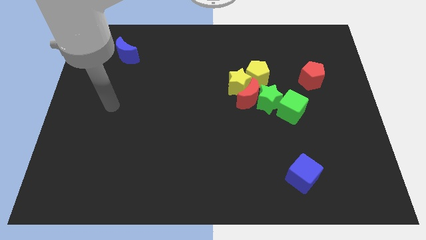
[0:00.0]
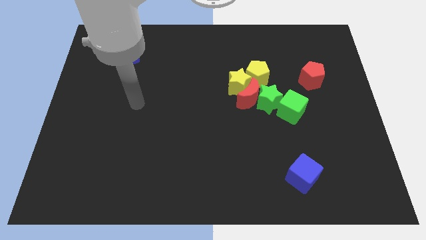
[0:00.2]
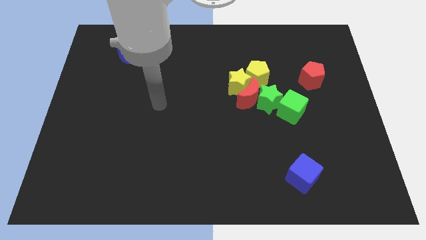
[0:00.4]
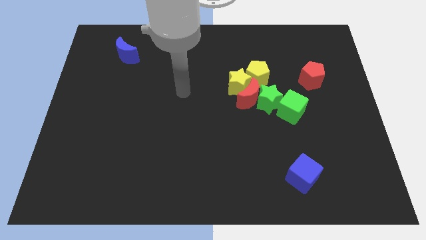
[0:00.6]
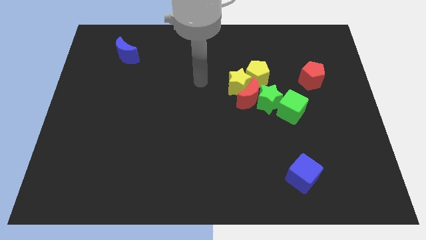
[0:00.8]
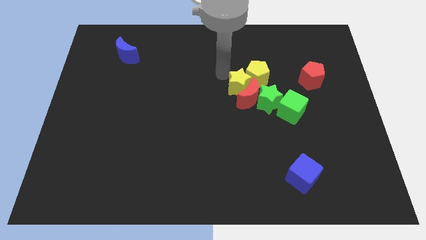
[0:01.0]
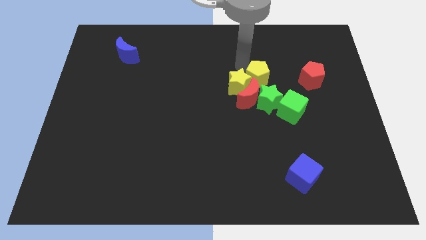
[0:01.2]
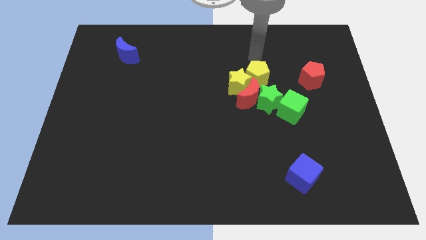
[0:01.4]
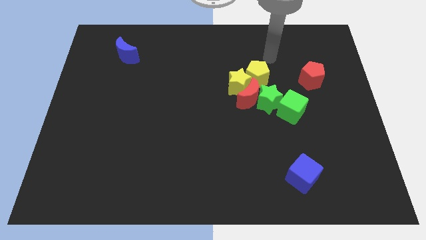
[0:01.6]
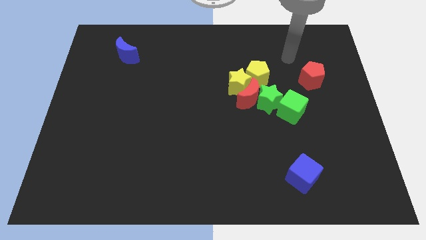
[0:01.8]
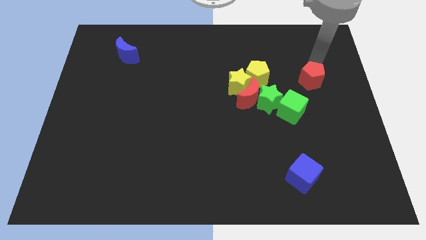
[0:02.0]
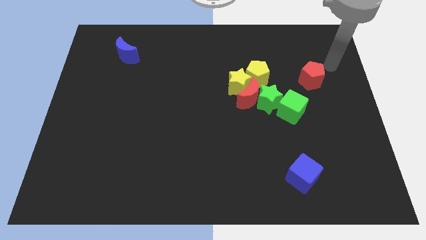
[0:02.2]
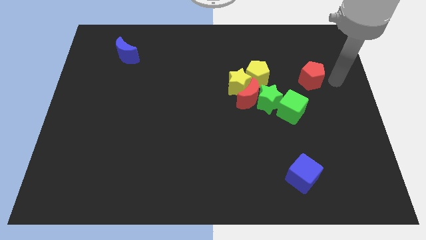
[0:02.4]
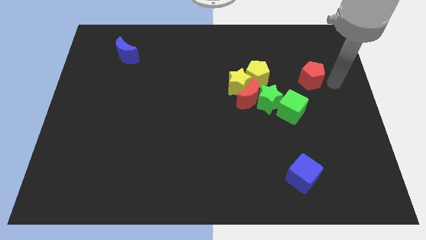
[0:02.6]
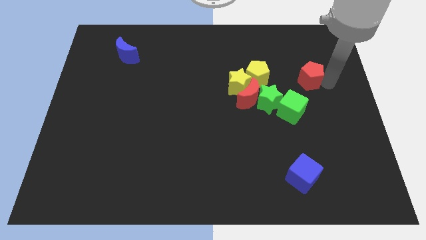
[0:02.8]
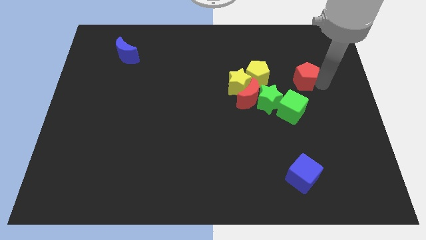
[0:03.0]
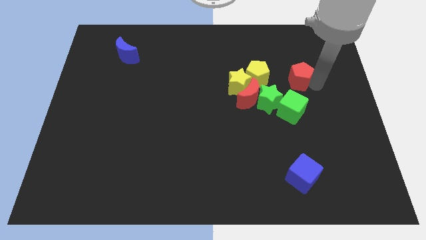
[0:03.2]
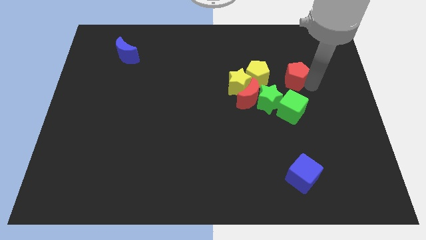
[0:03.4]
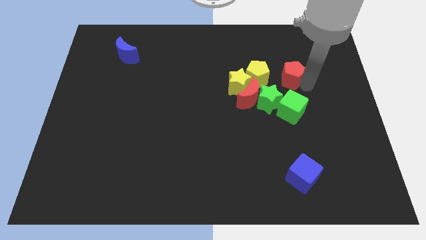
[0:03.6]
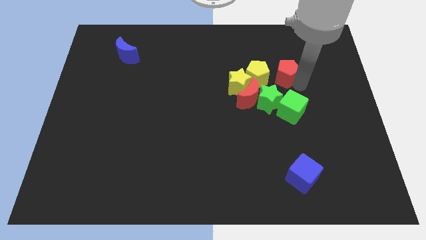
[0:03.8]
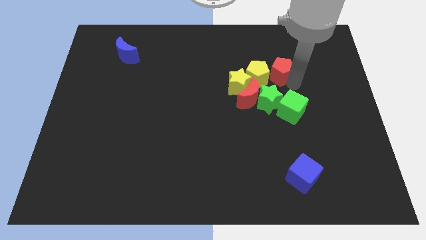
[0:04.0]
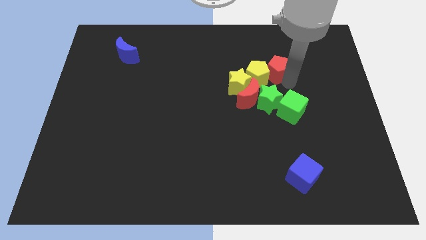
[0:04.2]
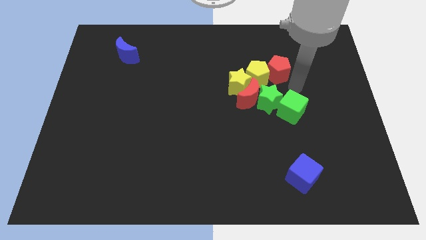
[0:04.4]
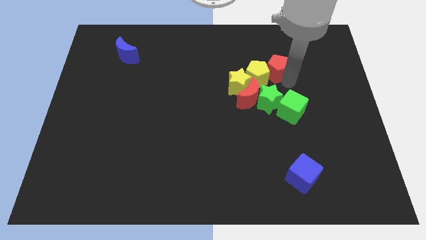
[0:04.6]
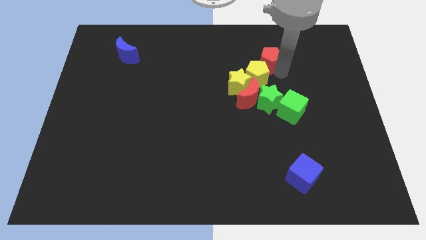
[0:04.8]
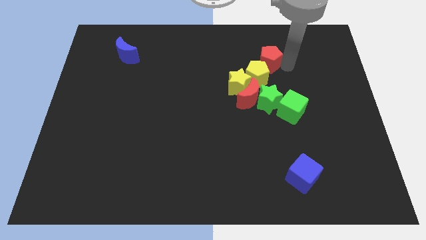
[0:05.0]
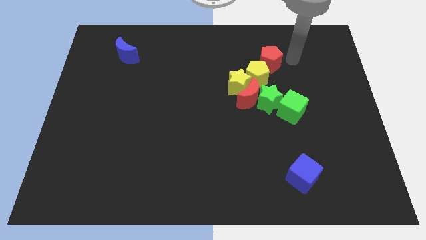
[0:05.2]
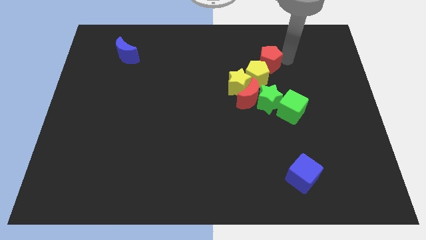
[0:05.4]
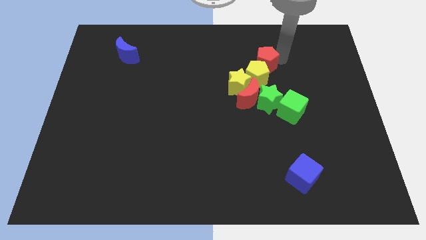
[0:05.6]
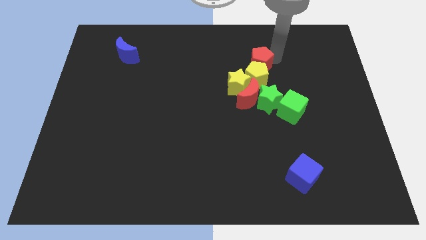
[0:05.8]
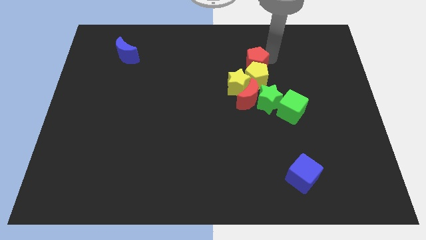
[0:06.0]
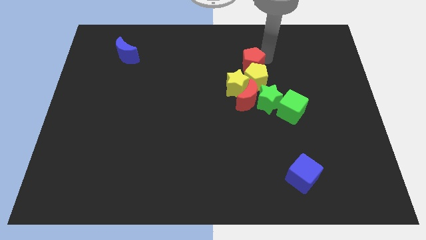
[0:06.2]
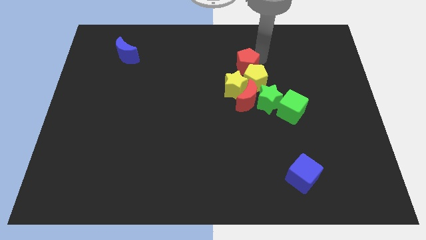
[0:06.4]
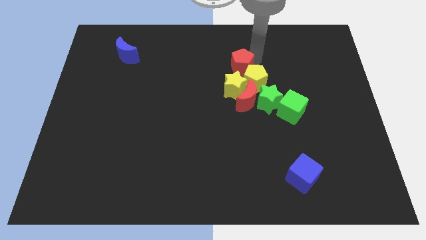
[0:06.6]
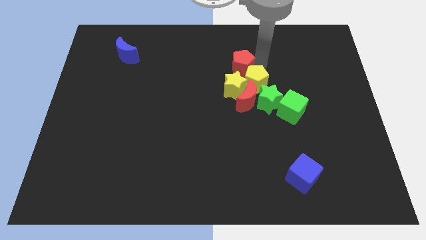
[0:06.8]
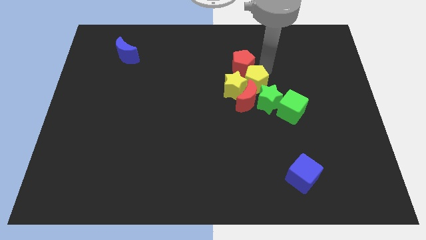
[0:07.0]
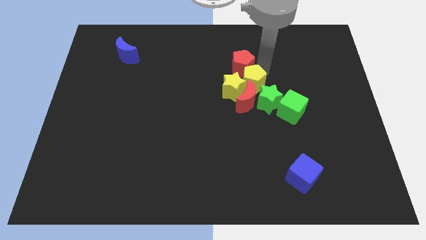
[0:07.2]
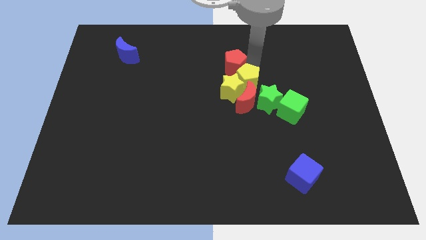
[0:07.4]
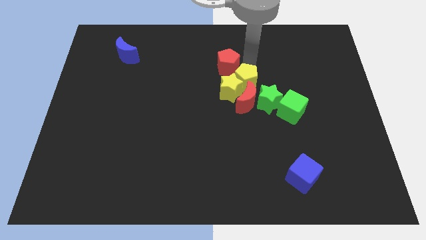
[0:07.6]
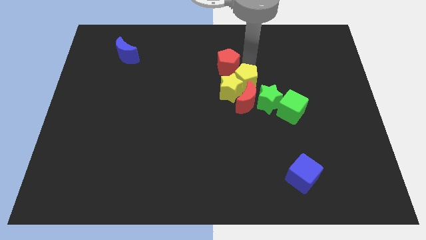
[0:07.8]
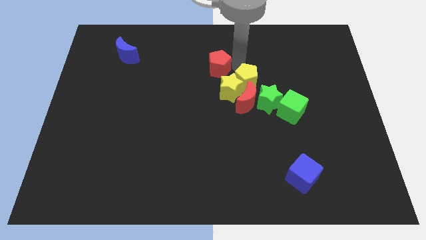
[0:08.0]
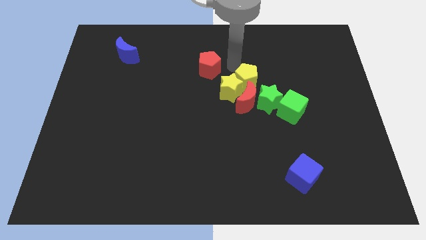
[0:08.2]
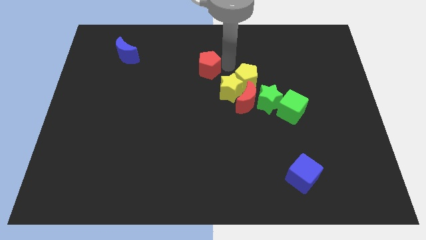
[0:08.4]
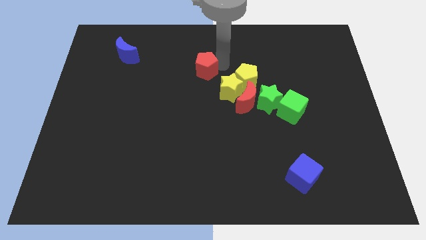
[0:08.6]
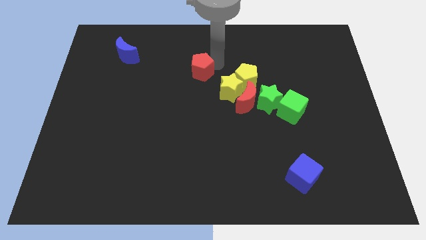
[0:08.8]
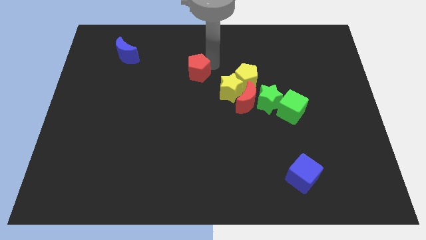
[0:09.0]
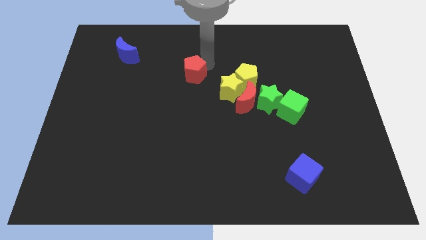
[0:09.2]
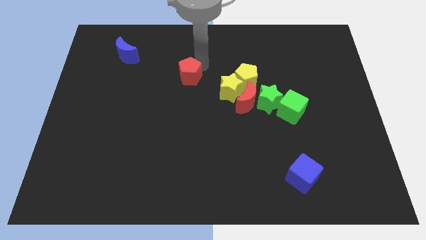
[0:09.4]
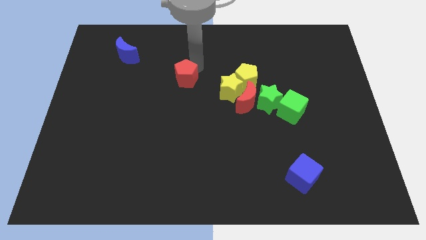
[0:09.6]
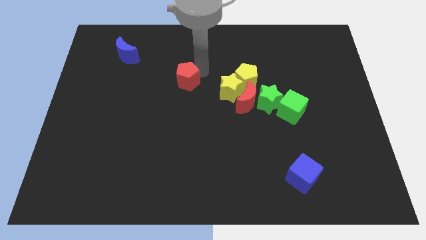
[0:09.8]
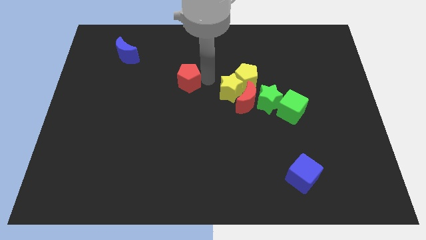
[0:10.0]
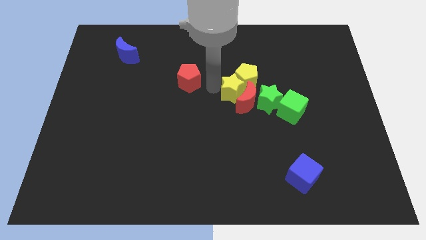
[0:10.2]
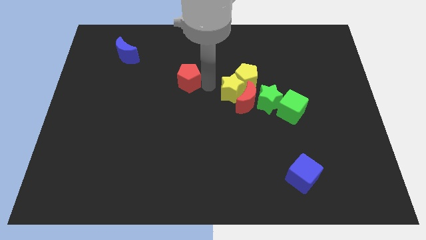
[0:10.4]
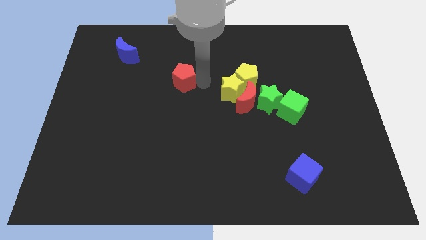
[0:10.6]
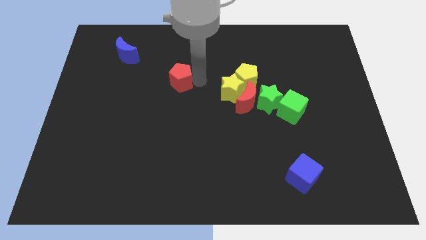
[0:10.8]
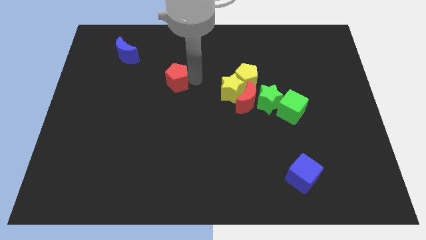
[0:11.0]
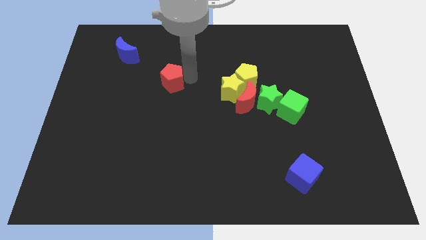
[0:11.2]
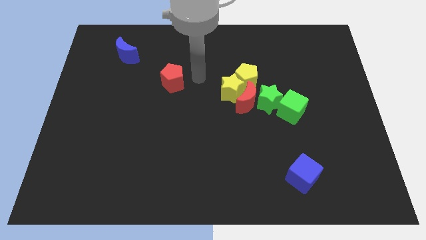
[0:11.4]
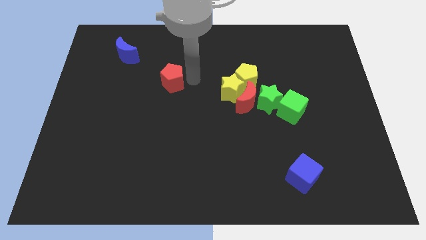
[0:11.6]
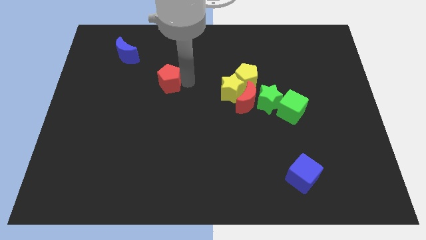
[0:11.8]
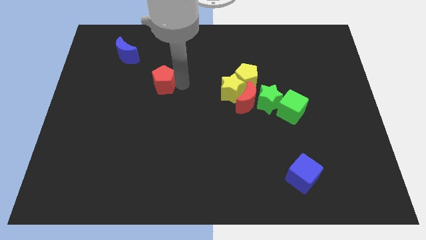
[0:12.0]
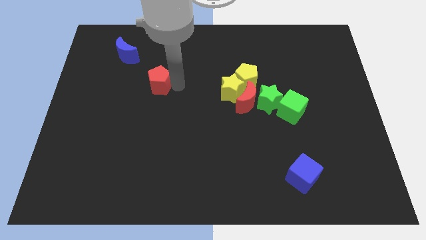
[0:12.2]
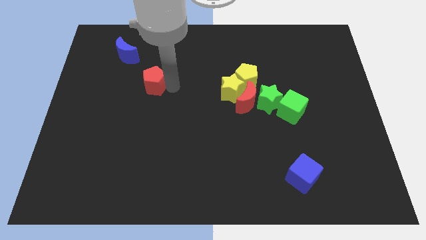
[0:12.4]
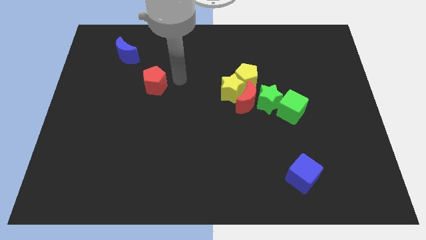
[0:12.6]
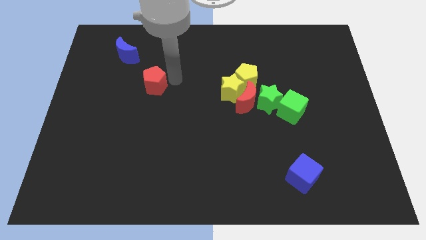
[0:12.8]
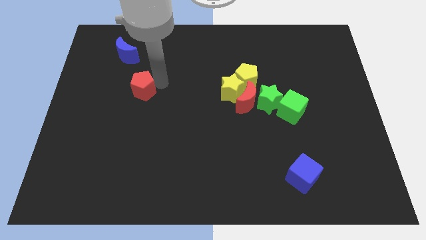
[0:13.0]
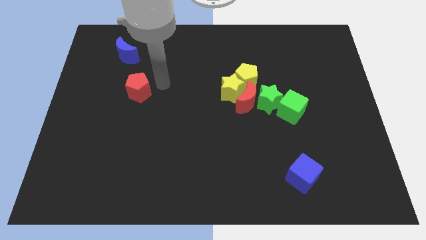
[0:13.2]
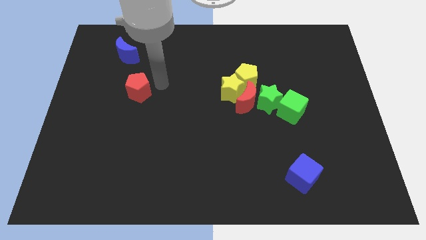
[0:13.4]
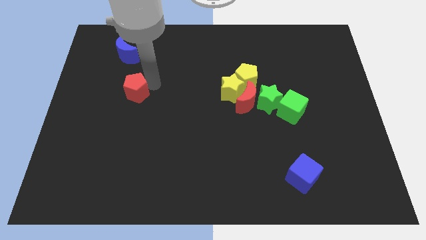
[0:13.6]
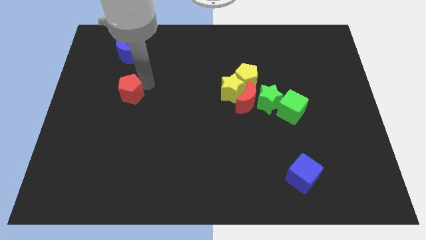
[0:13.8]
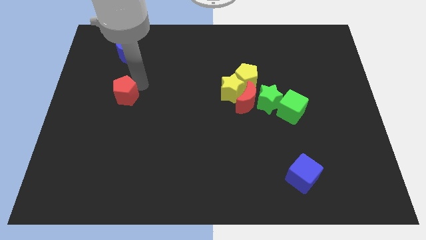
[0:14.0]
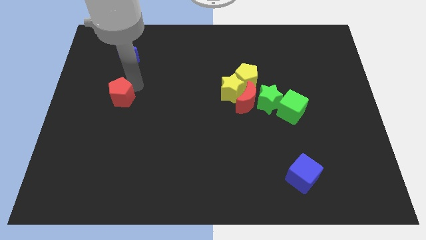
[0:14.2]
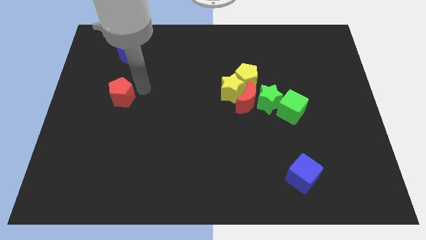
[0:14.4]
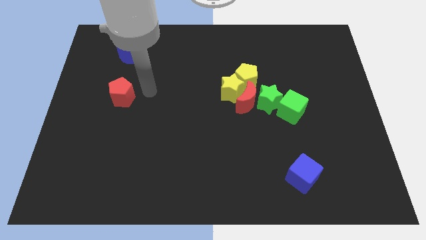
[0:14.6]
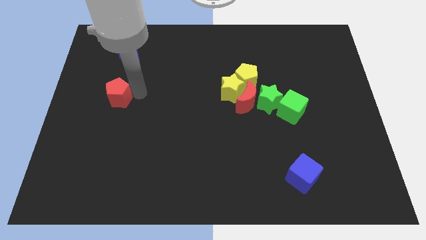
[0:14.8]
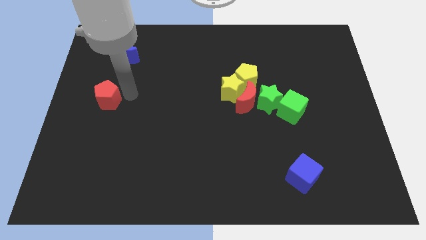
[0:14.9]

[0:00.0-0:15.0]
slide the red pentagon to the center left
